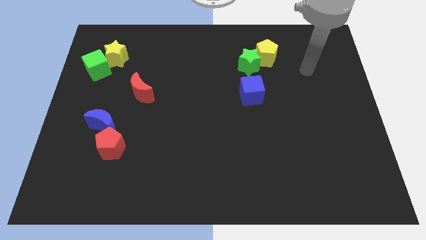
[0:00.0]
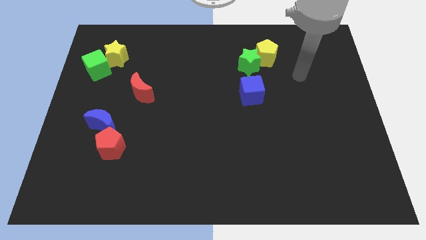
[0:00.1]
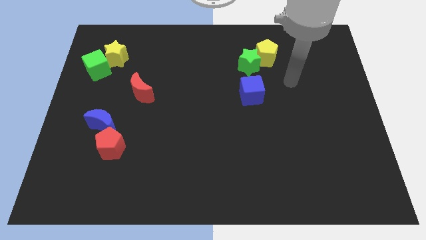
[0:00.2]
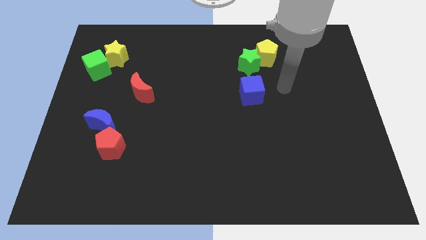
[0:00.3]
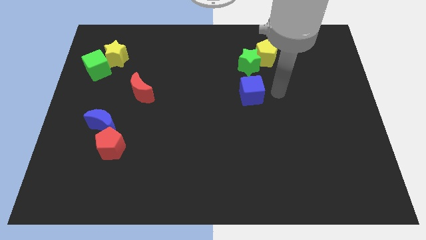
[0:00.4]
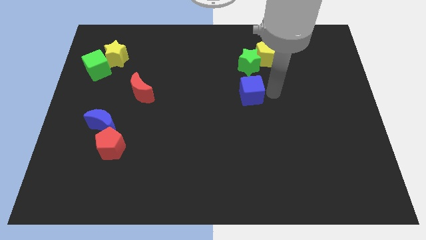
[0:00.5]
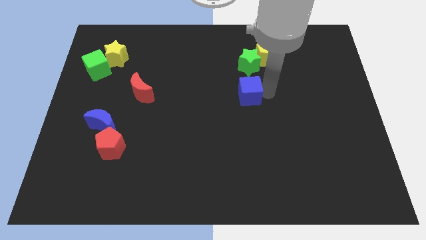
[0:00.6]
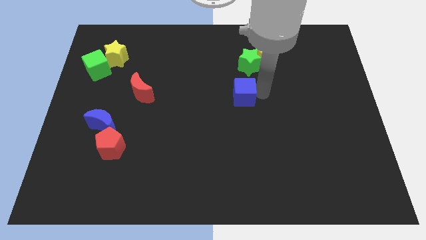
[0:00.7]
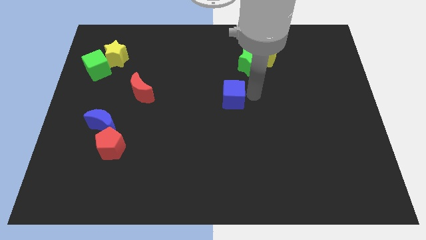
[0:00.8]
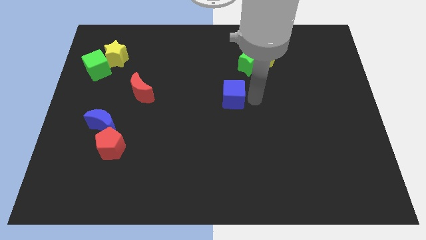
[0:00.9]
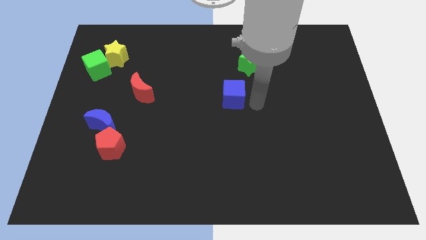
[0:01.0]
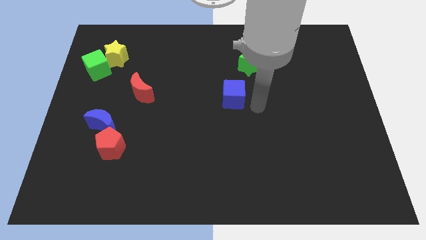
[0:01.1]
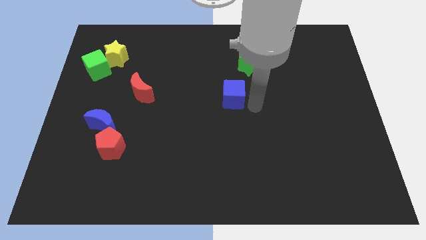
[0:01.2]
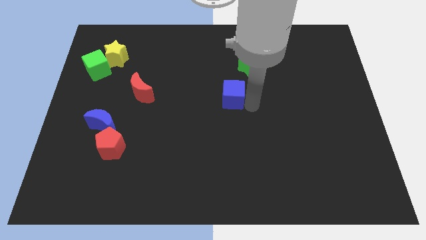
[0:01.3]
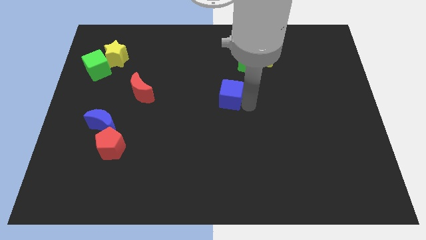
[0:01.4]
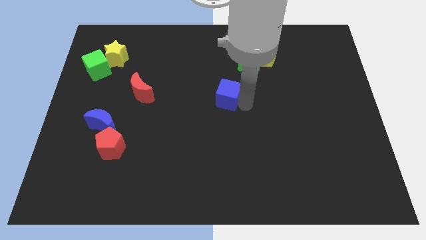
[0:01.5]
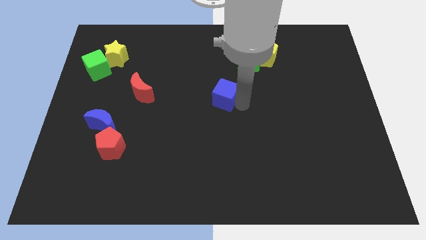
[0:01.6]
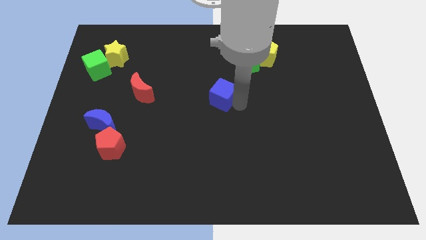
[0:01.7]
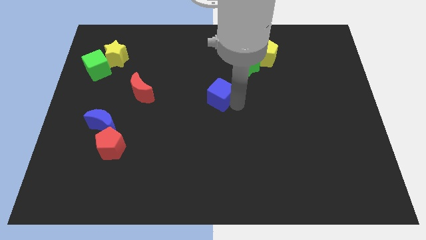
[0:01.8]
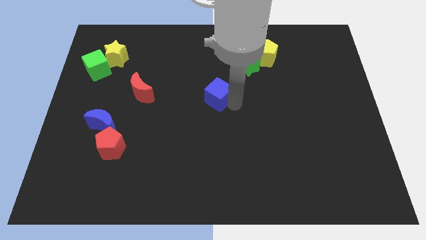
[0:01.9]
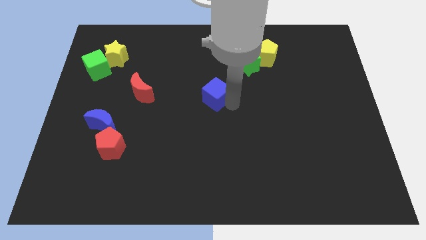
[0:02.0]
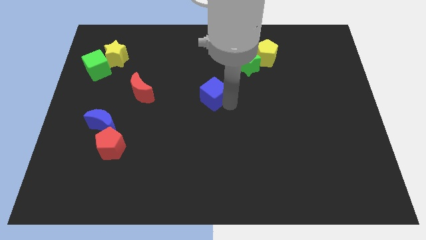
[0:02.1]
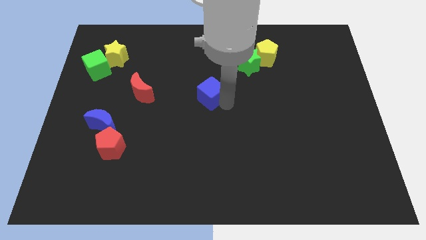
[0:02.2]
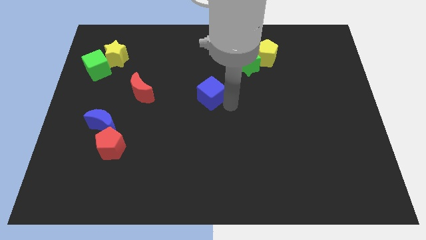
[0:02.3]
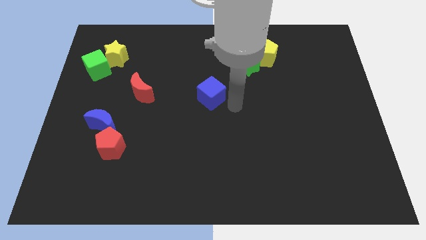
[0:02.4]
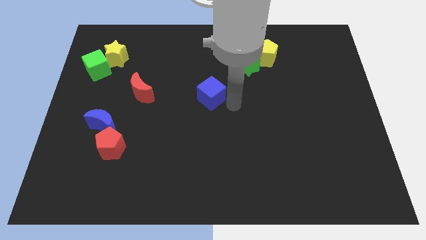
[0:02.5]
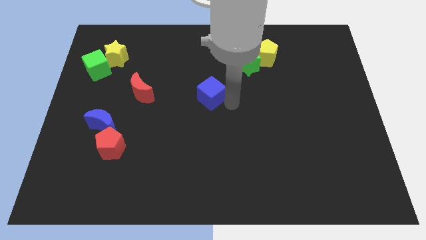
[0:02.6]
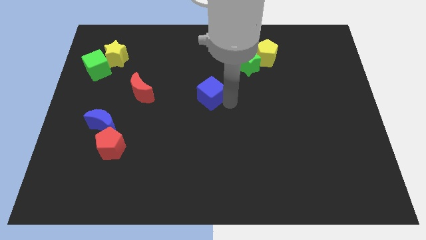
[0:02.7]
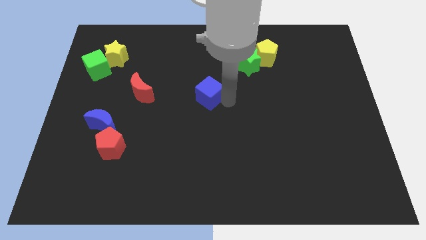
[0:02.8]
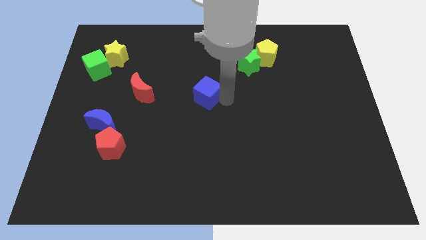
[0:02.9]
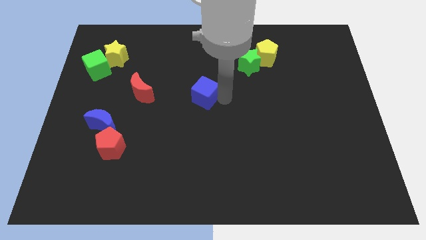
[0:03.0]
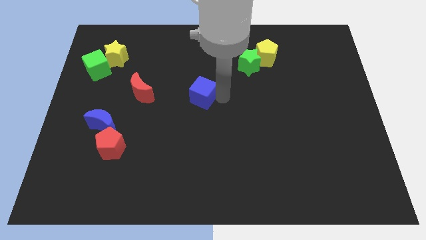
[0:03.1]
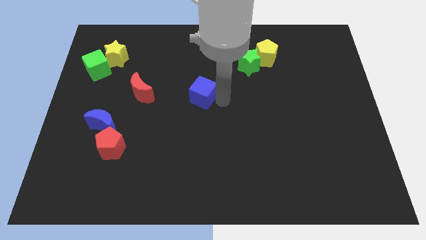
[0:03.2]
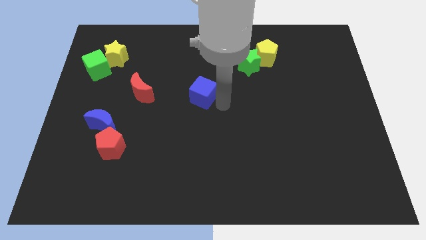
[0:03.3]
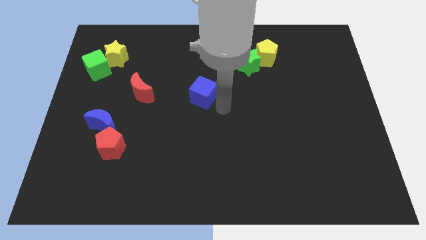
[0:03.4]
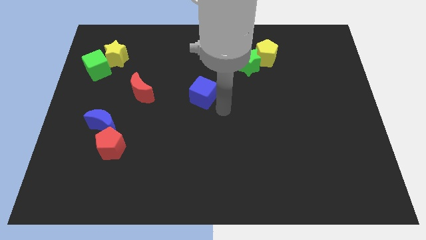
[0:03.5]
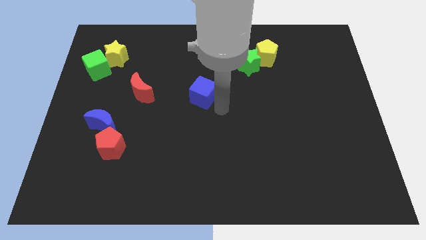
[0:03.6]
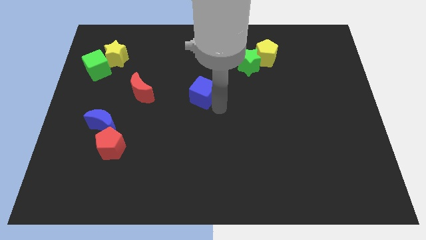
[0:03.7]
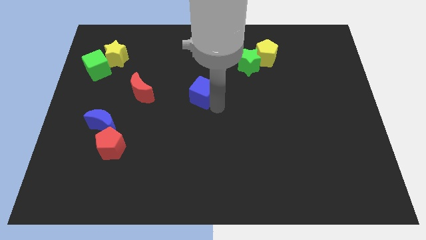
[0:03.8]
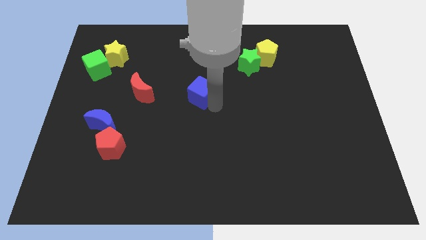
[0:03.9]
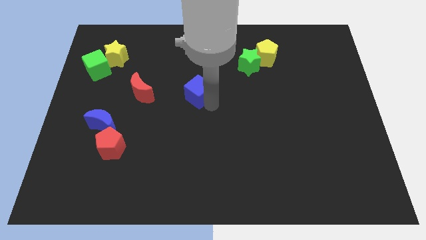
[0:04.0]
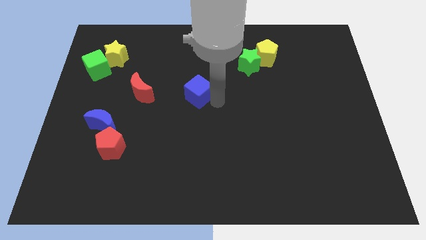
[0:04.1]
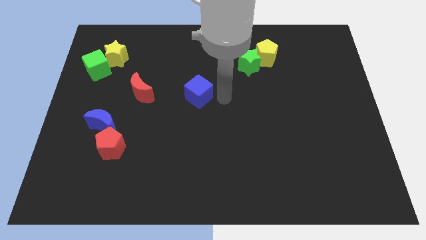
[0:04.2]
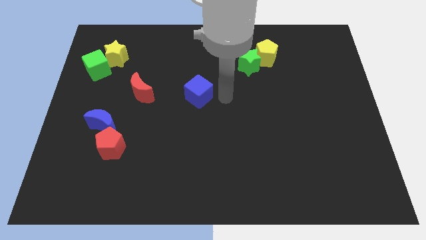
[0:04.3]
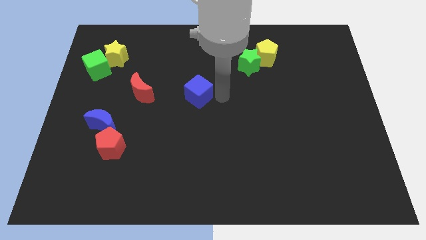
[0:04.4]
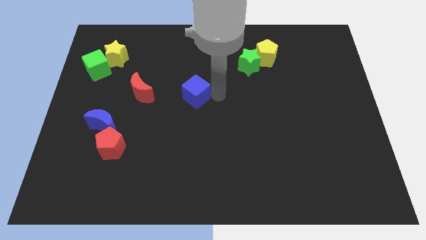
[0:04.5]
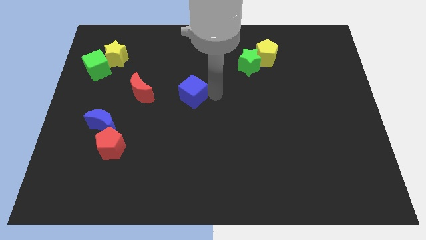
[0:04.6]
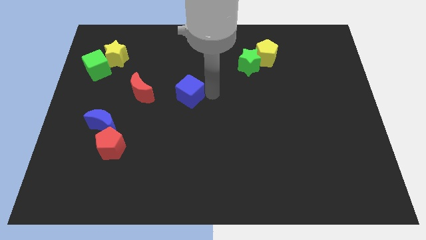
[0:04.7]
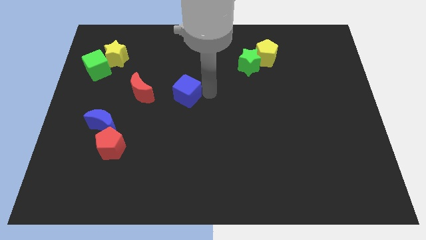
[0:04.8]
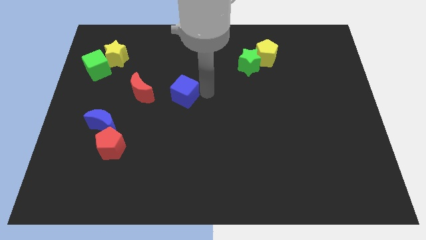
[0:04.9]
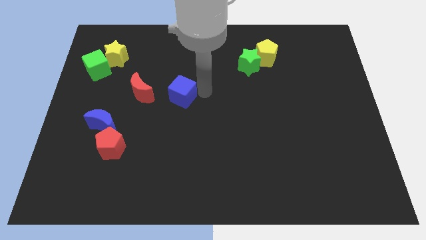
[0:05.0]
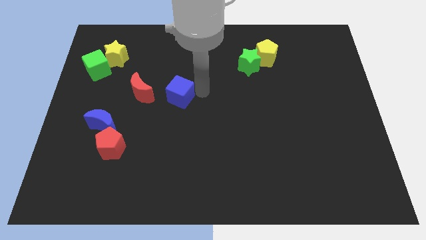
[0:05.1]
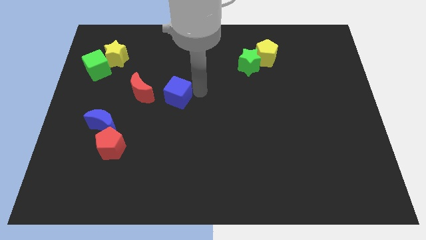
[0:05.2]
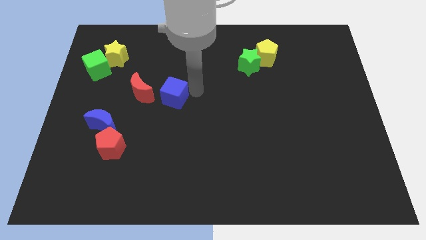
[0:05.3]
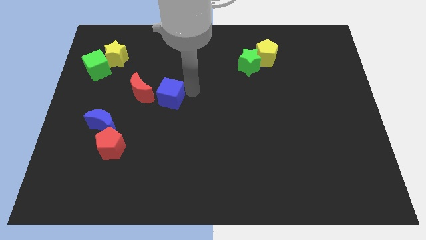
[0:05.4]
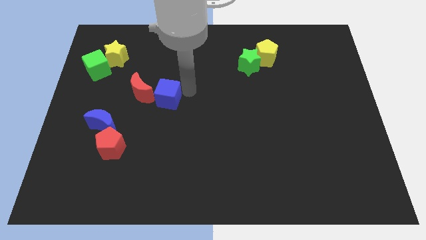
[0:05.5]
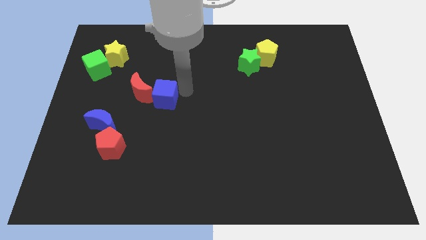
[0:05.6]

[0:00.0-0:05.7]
slide the blue cube close to the red moon

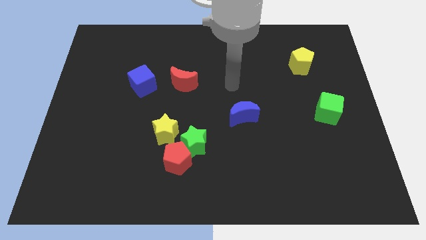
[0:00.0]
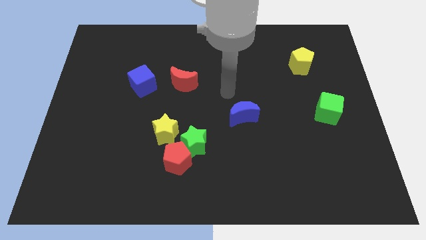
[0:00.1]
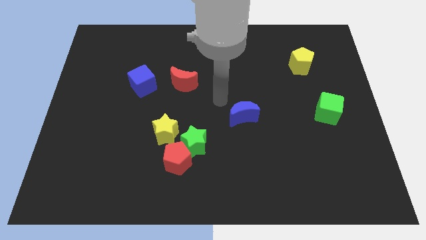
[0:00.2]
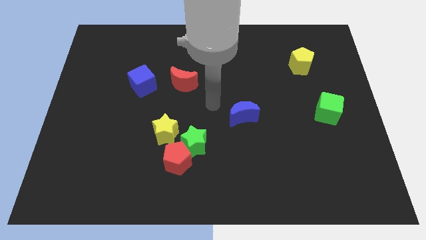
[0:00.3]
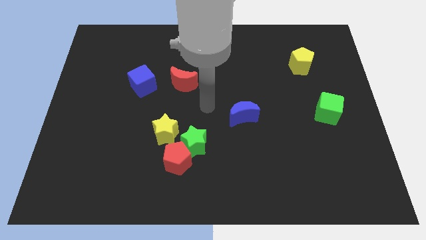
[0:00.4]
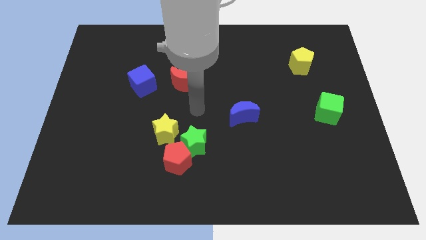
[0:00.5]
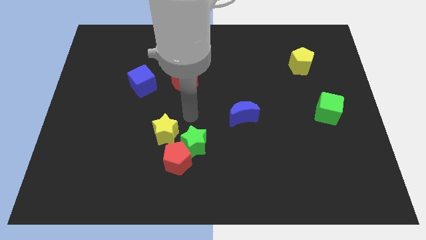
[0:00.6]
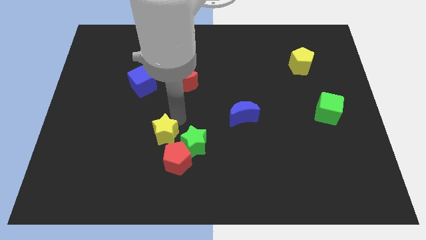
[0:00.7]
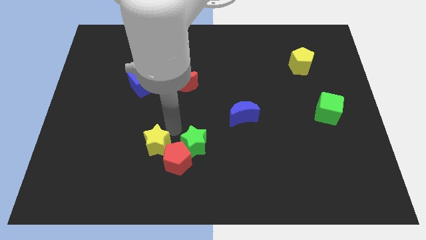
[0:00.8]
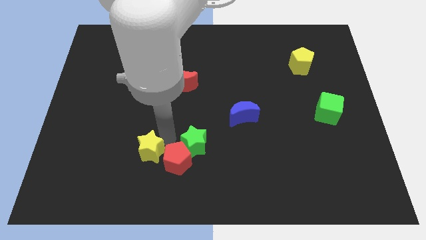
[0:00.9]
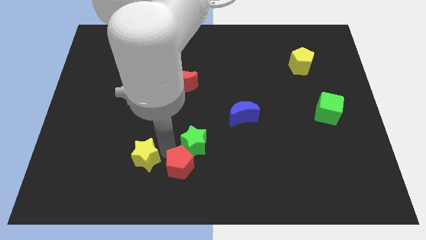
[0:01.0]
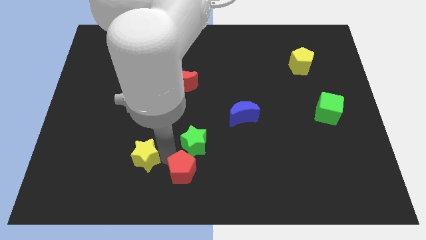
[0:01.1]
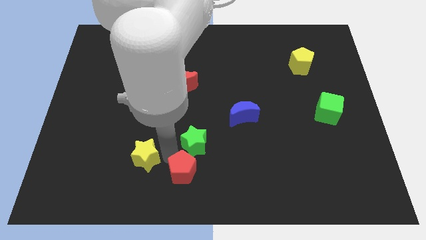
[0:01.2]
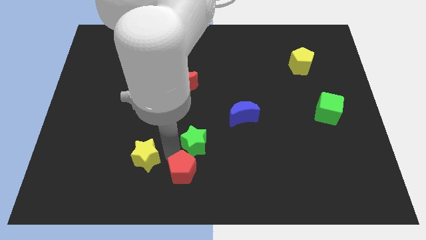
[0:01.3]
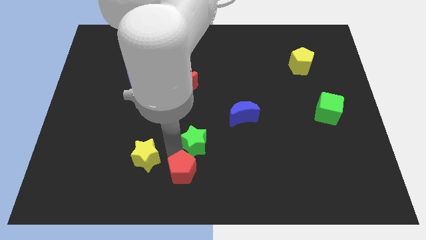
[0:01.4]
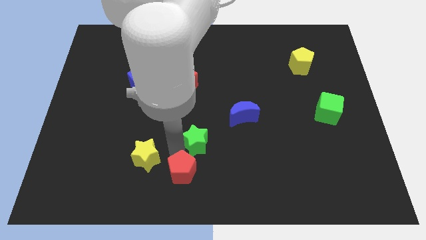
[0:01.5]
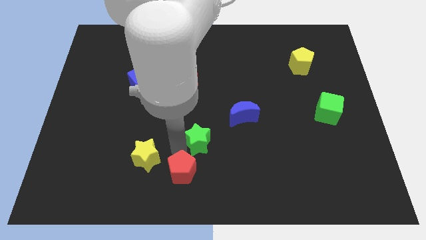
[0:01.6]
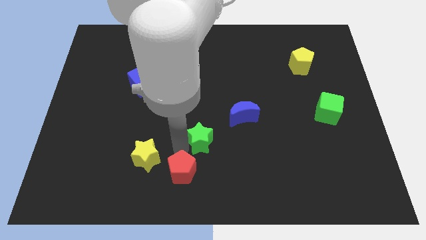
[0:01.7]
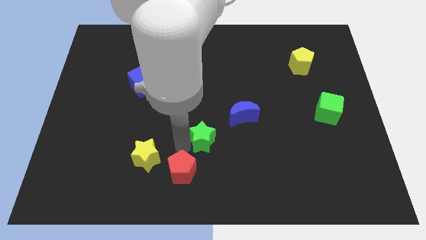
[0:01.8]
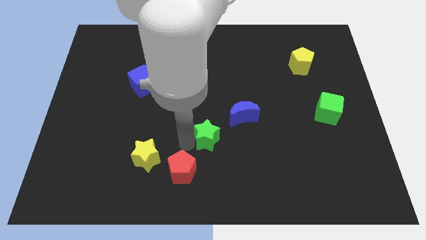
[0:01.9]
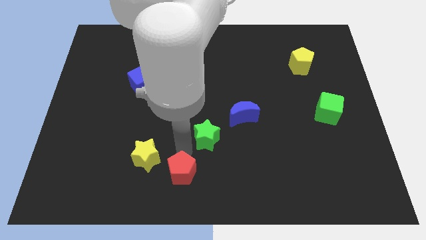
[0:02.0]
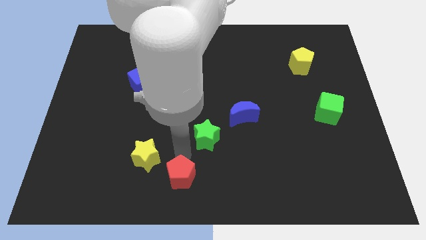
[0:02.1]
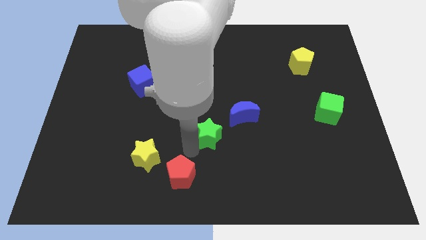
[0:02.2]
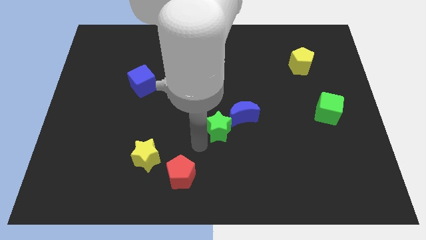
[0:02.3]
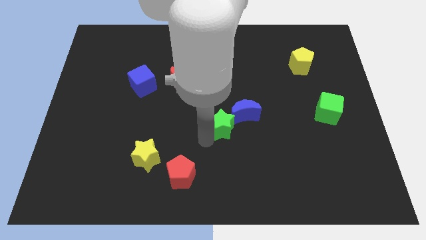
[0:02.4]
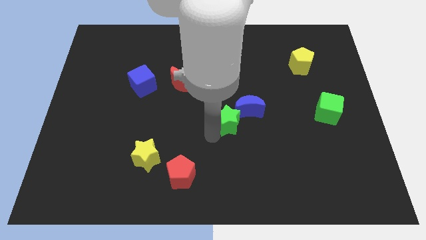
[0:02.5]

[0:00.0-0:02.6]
push the green star close to the blue moon

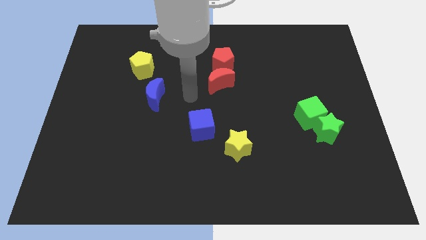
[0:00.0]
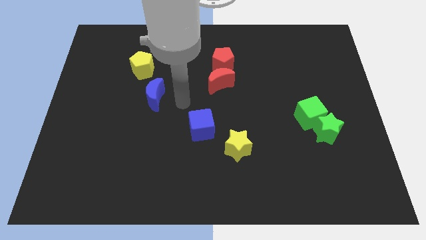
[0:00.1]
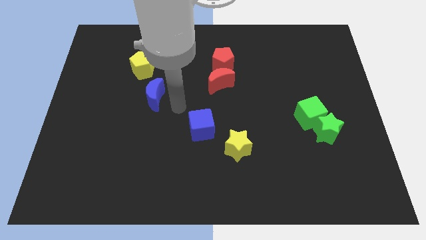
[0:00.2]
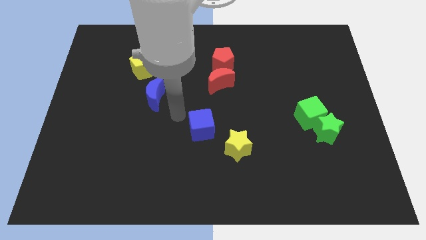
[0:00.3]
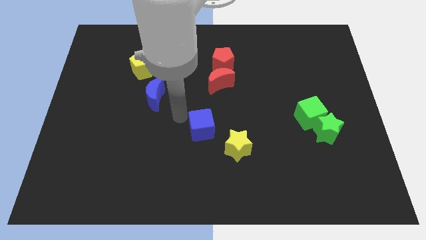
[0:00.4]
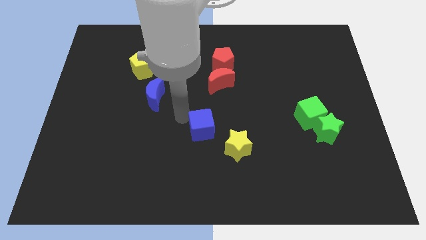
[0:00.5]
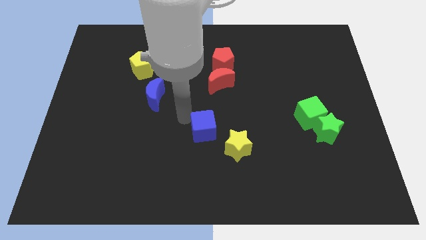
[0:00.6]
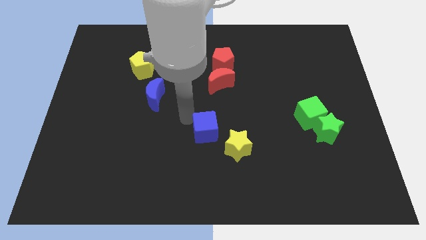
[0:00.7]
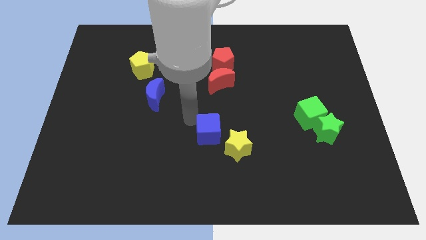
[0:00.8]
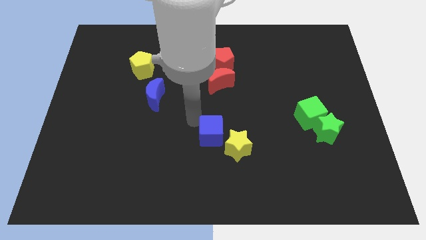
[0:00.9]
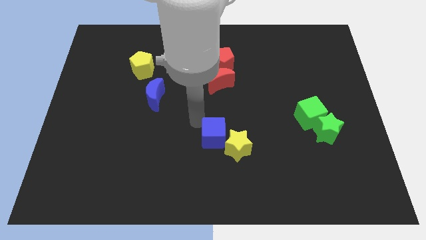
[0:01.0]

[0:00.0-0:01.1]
push the blue cube next to the yellow star
